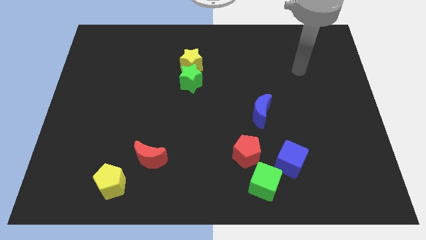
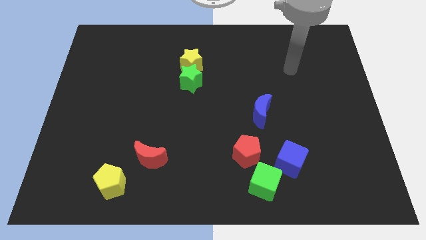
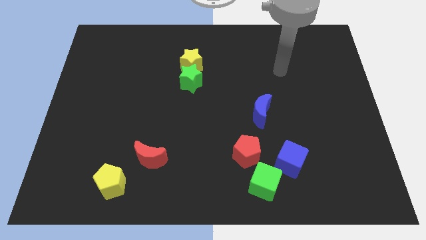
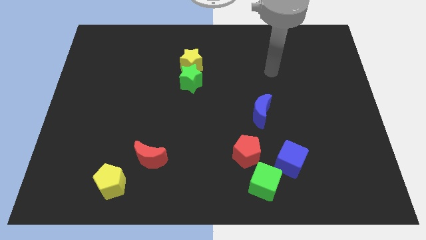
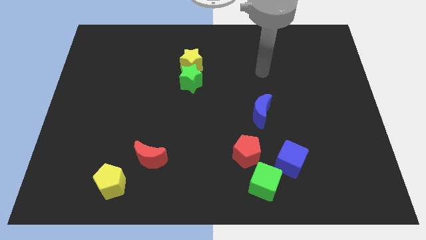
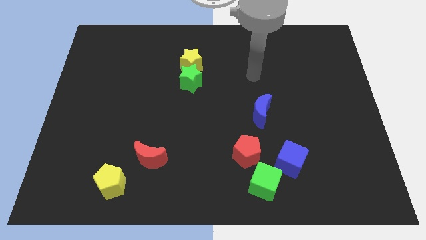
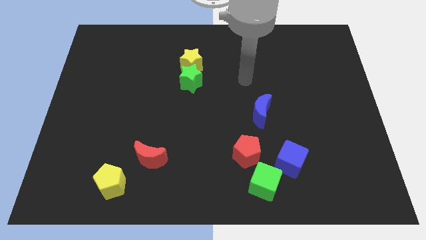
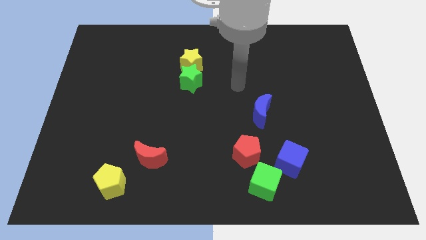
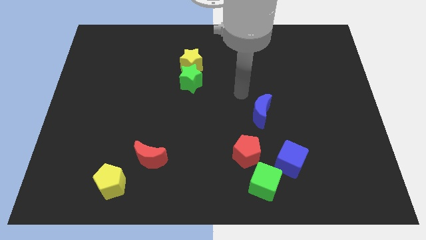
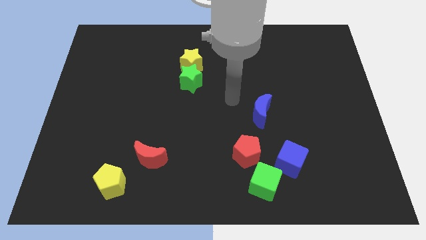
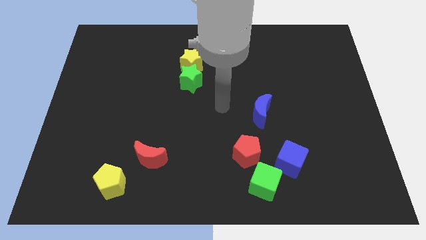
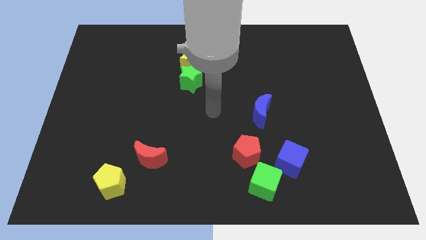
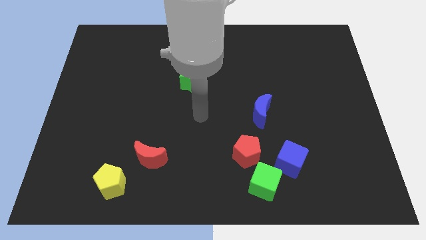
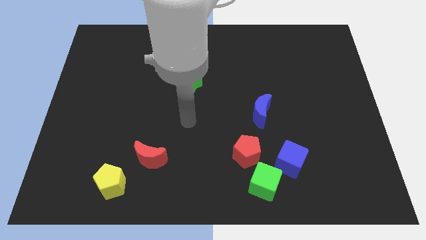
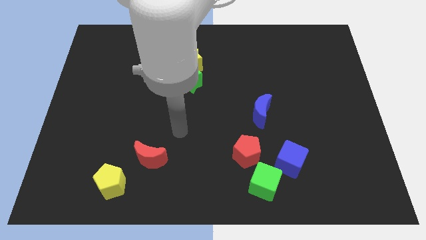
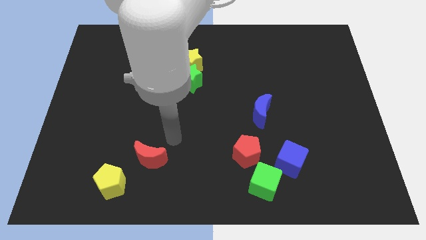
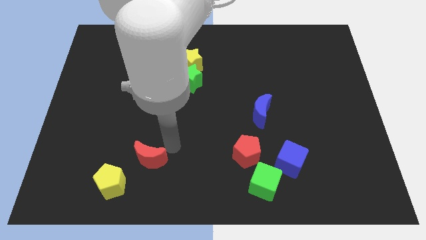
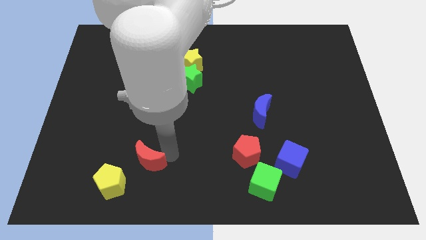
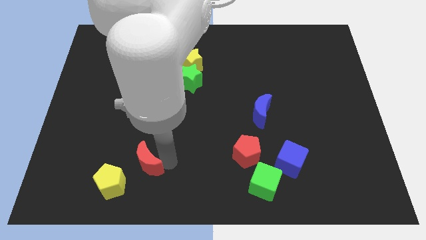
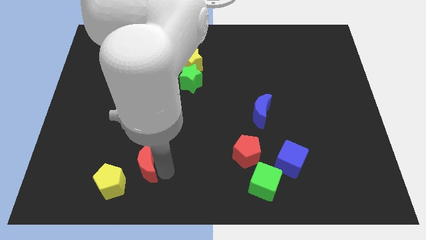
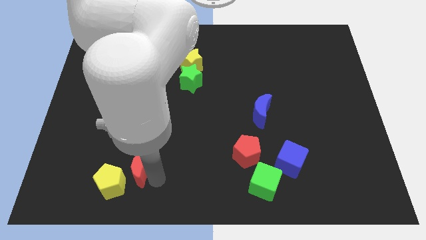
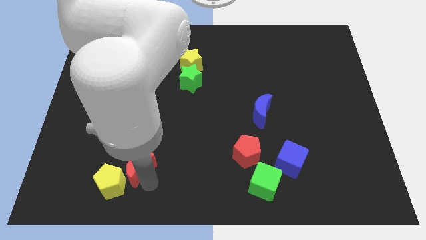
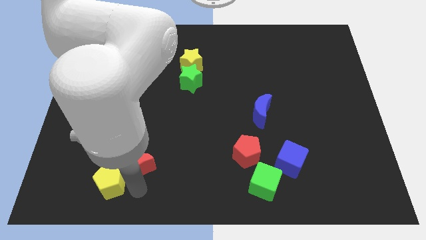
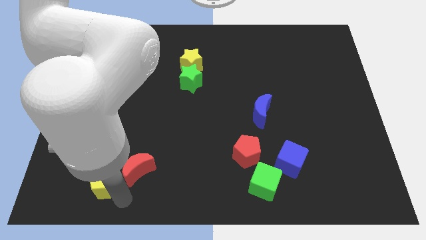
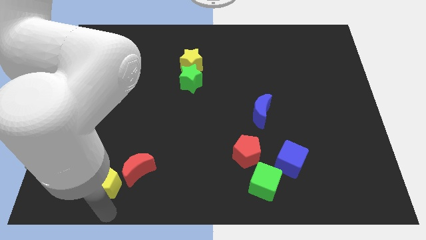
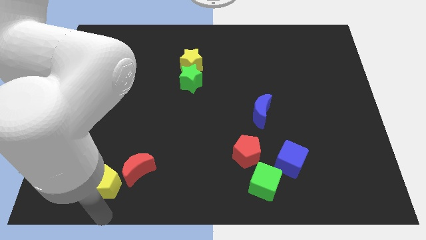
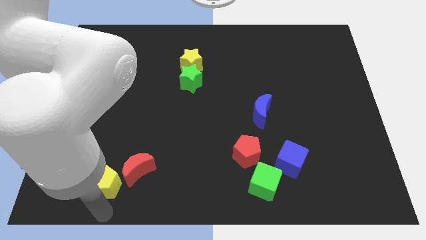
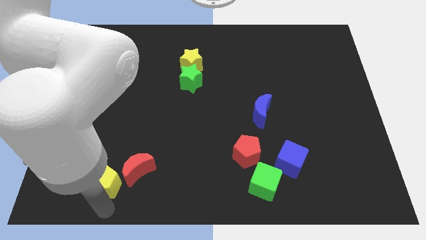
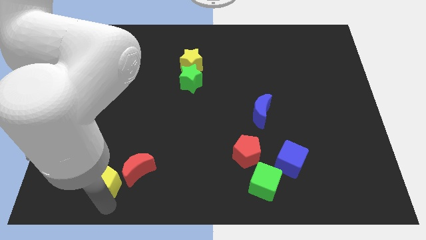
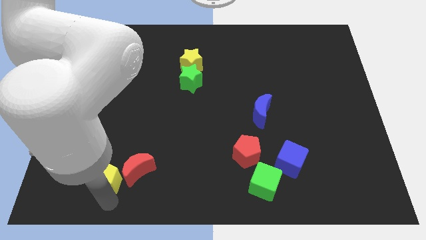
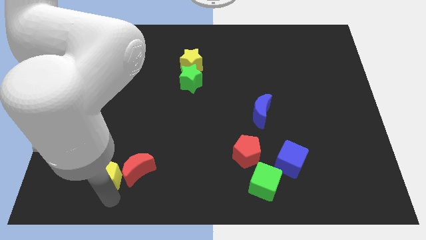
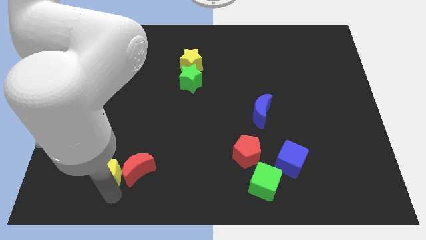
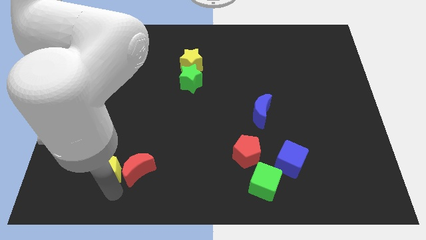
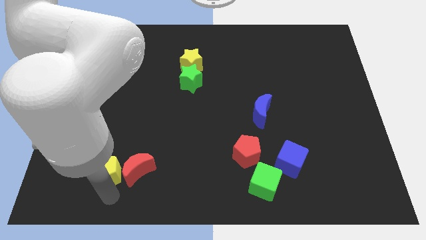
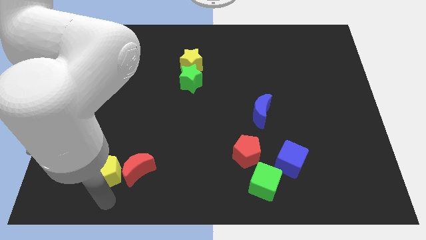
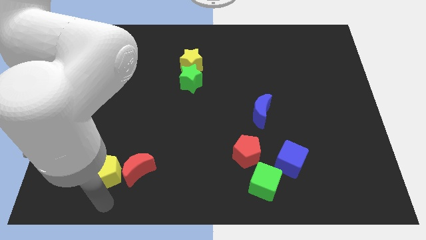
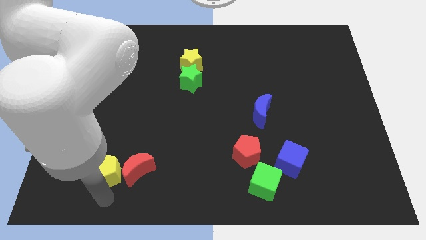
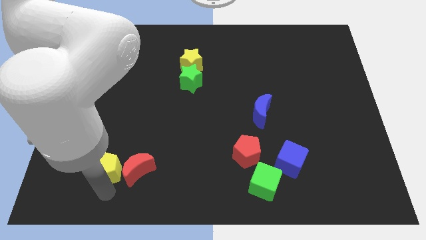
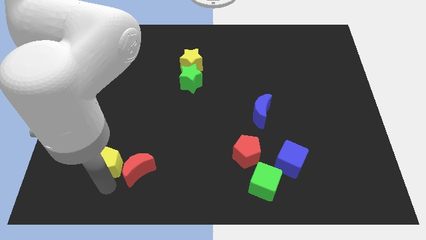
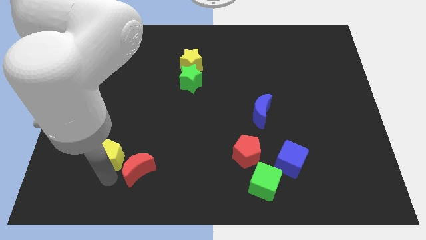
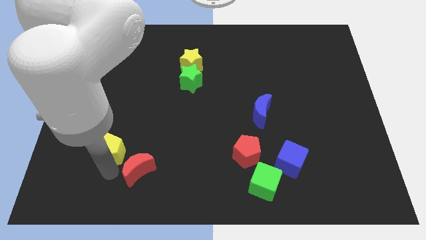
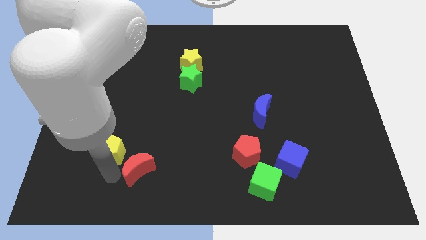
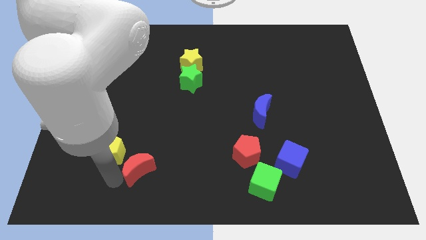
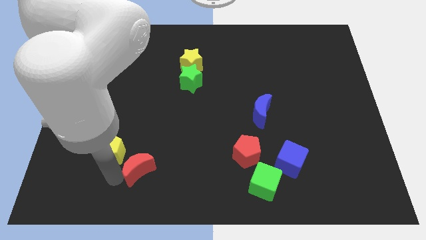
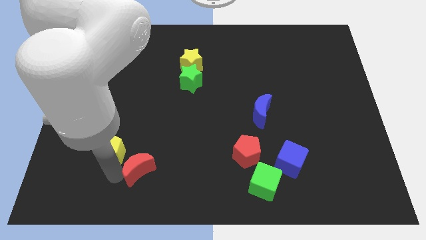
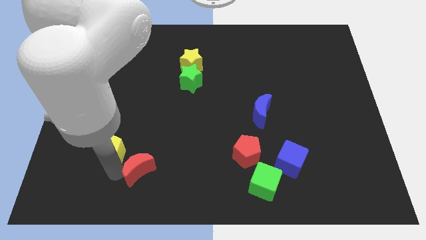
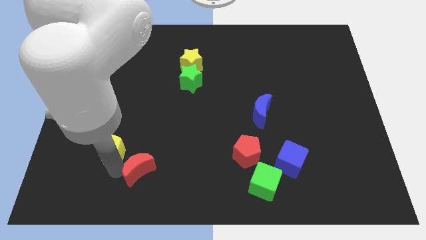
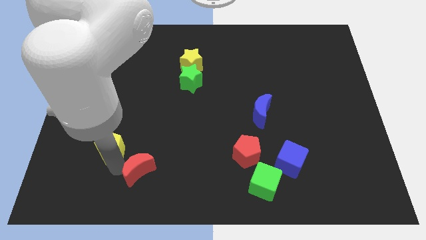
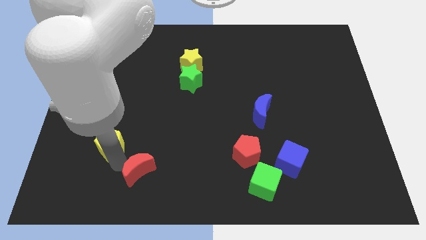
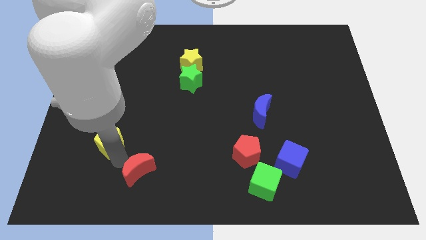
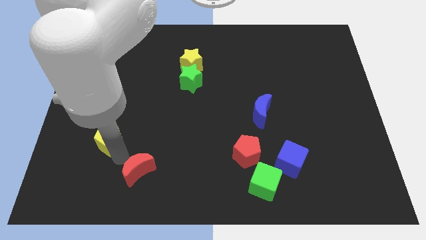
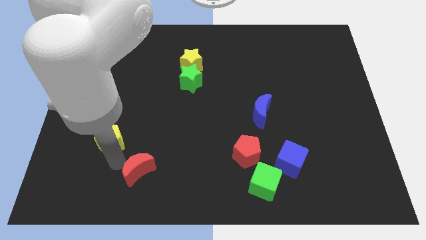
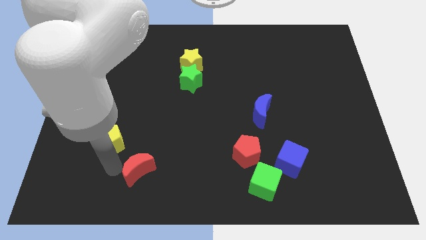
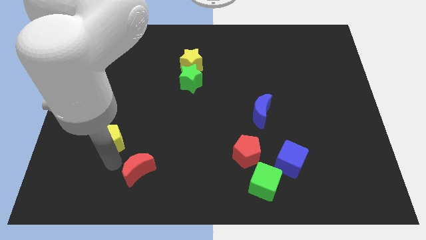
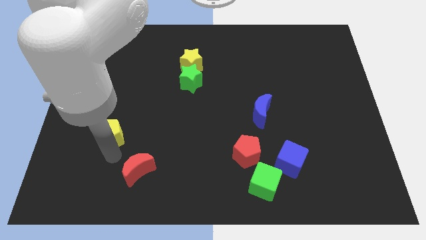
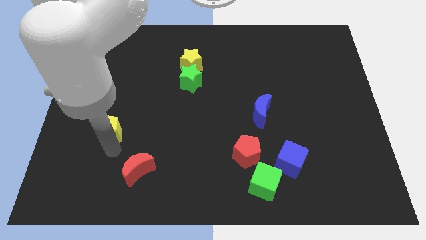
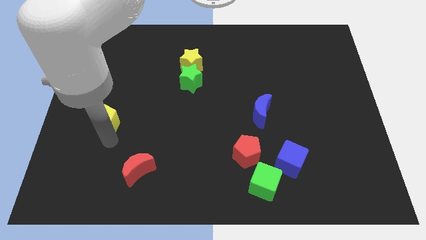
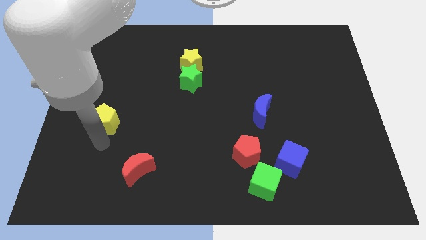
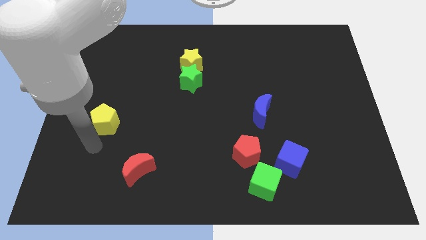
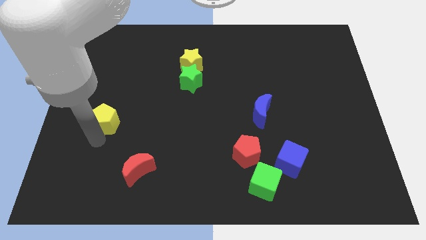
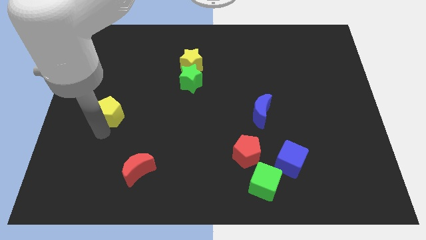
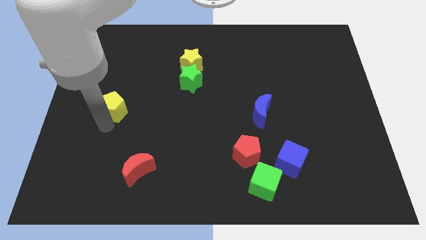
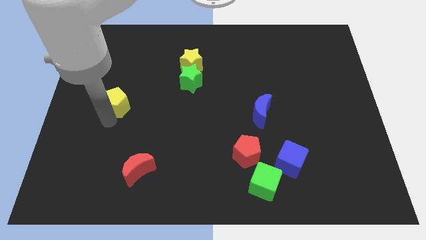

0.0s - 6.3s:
slide the yellow pentagon upwards

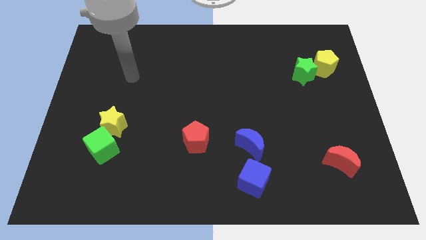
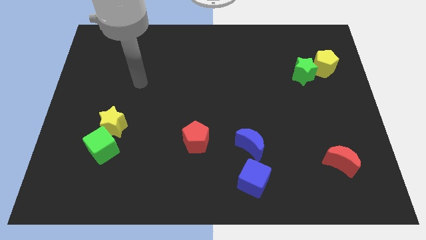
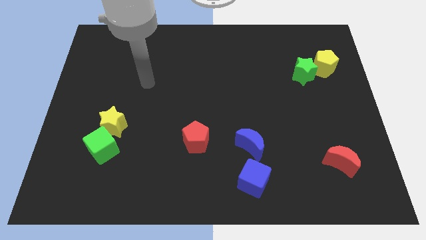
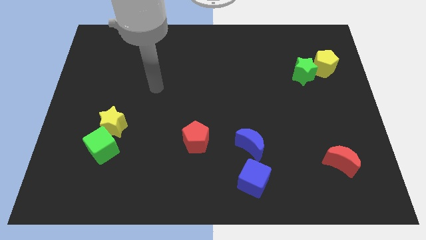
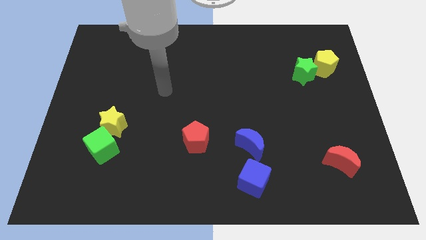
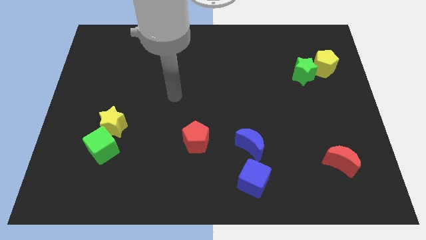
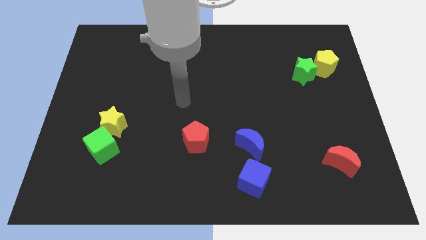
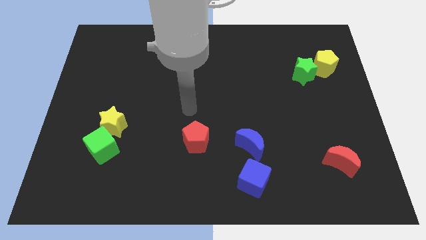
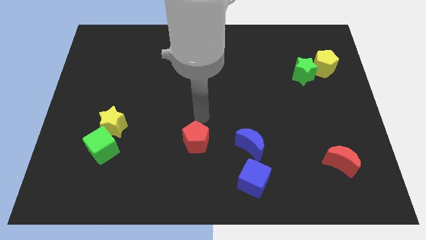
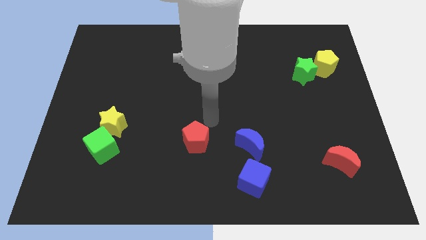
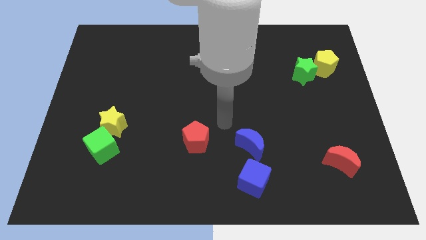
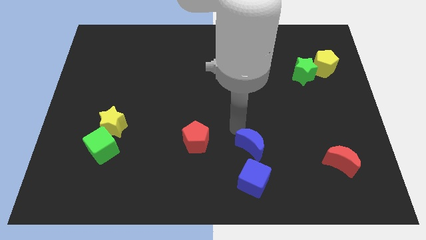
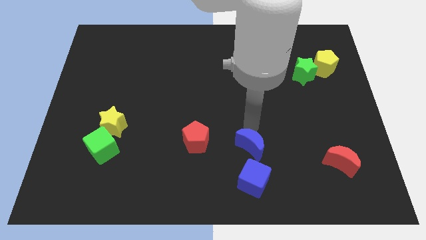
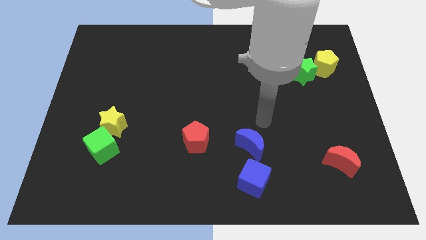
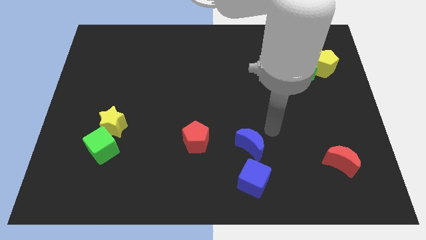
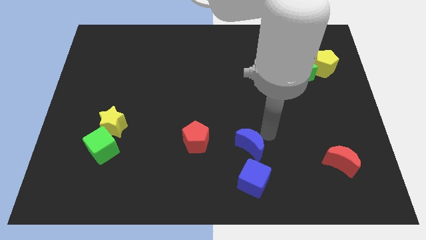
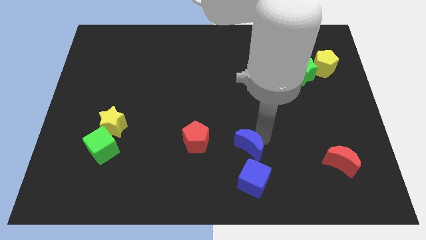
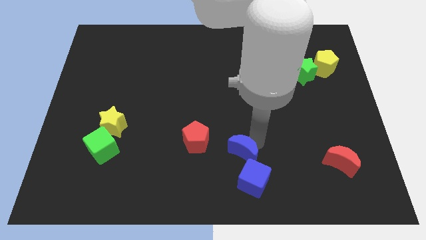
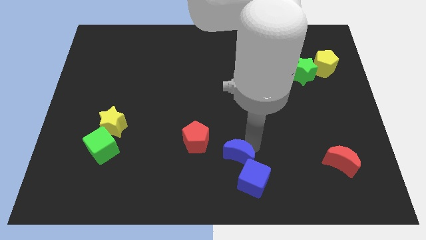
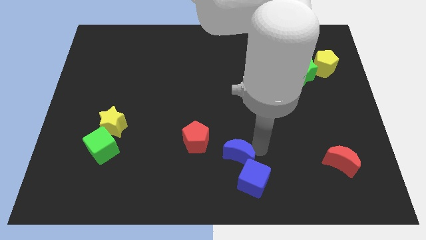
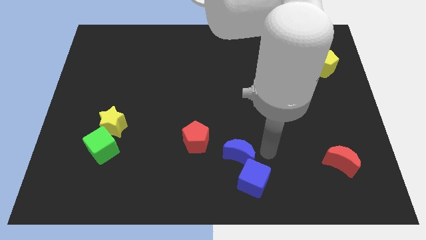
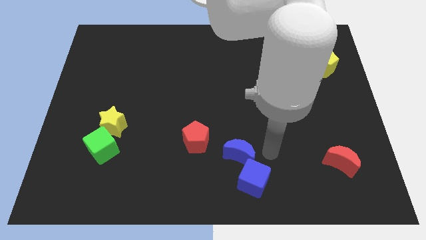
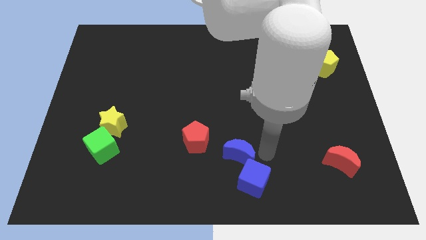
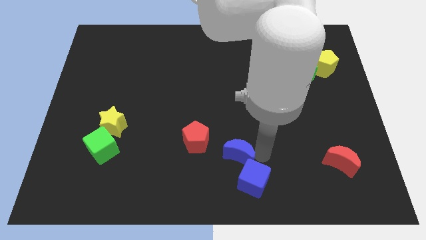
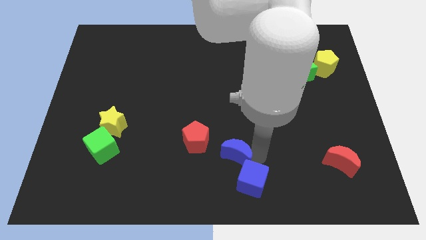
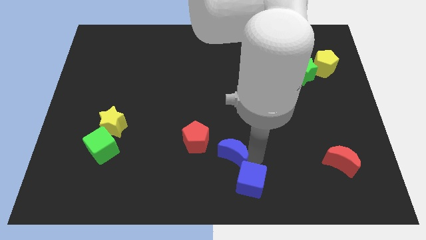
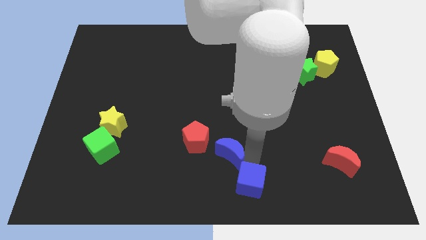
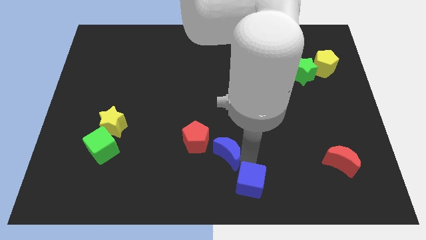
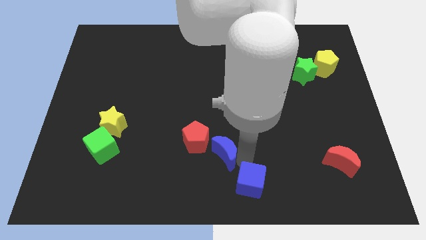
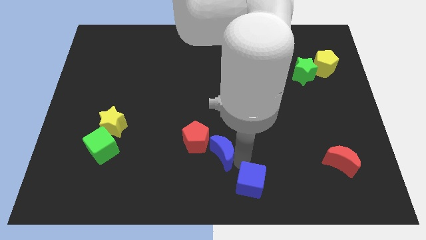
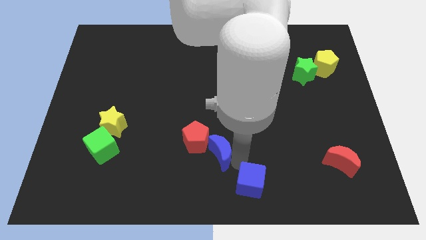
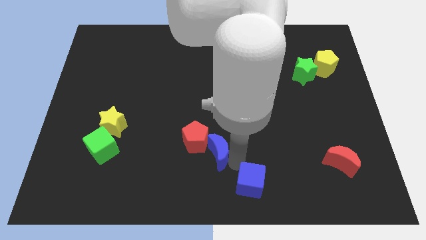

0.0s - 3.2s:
move the blue moon to the left somewhat
